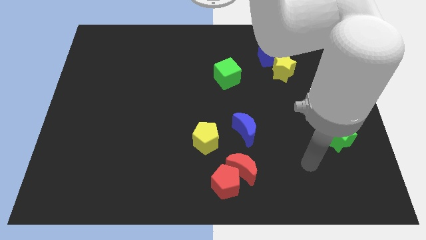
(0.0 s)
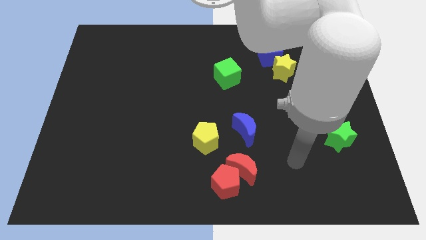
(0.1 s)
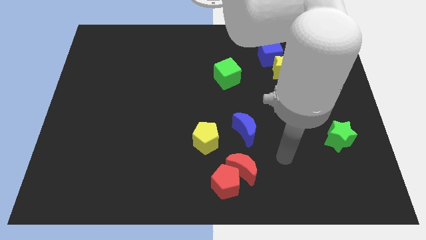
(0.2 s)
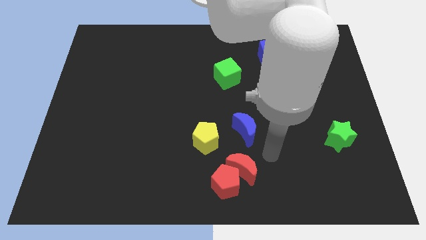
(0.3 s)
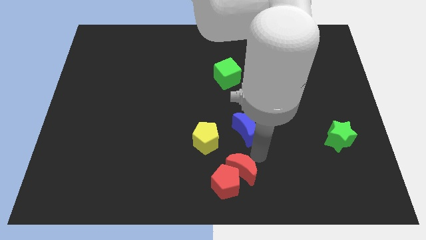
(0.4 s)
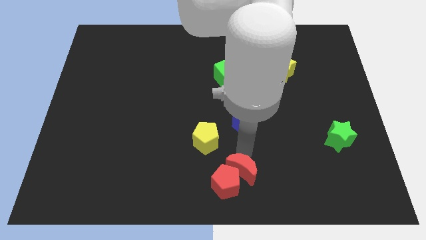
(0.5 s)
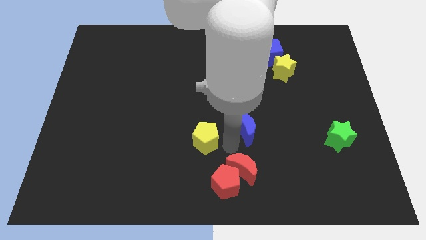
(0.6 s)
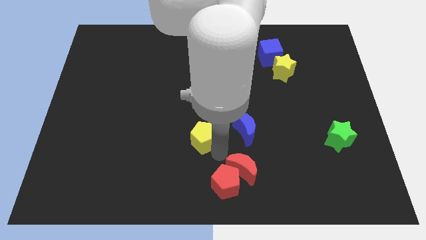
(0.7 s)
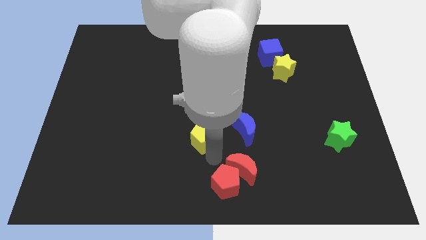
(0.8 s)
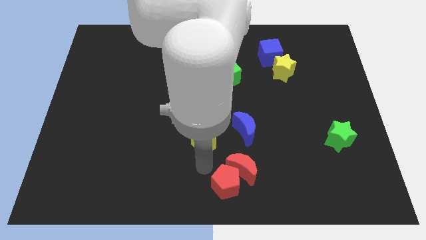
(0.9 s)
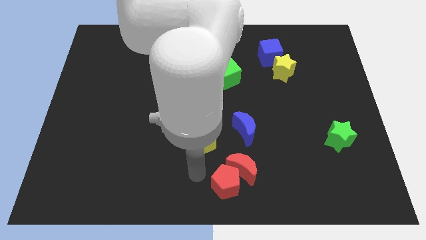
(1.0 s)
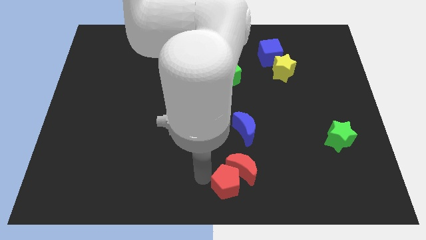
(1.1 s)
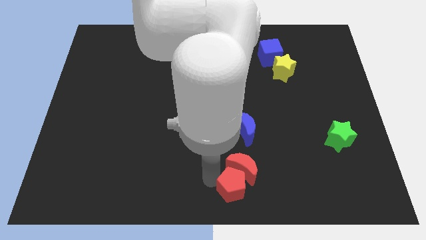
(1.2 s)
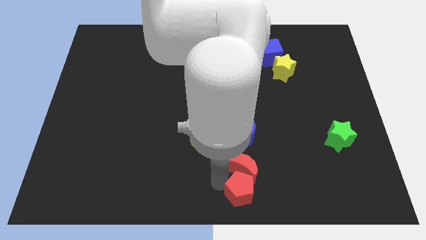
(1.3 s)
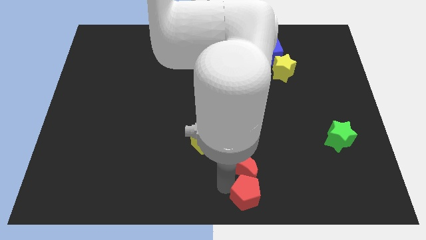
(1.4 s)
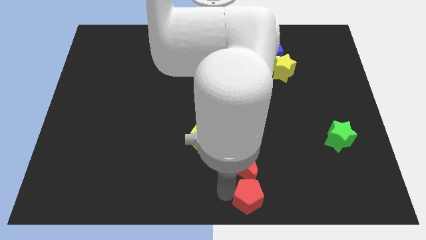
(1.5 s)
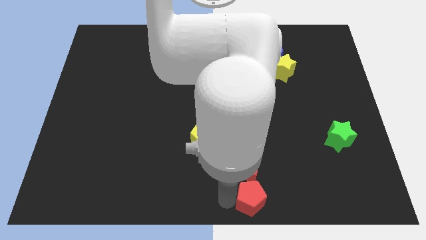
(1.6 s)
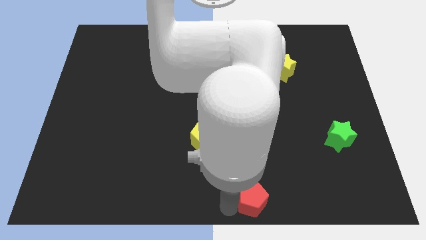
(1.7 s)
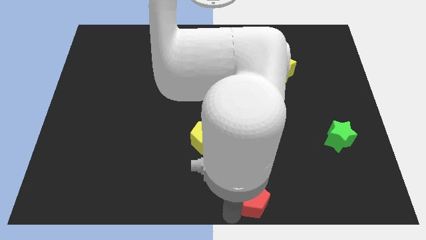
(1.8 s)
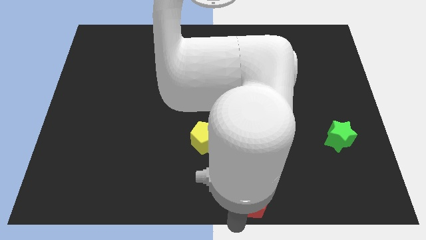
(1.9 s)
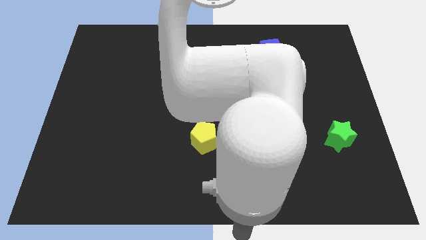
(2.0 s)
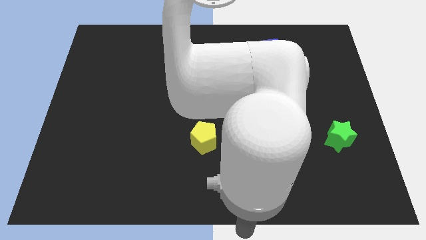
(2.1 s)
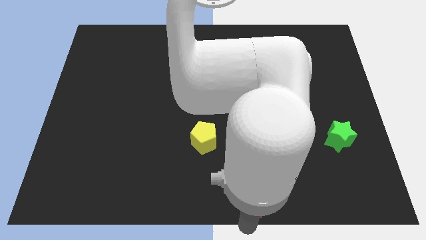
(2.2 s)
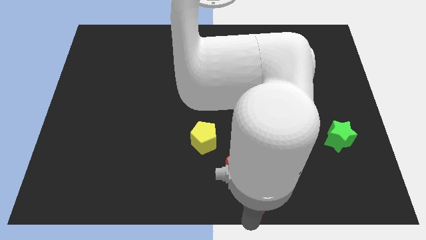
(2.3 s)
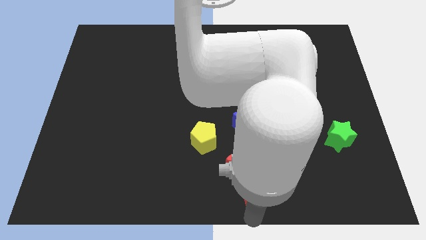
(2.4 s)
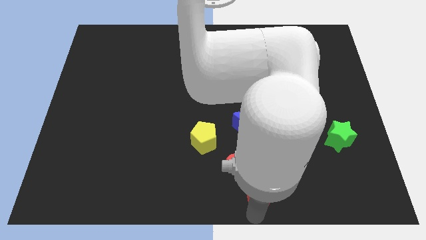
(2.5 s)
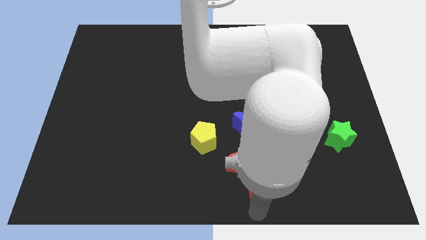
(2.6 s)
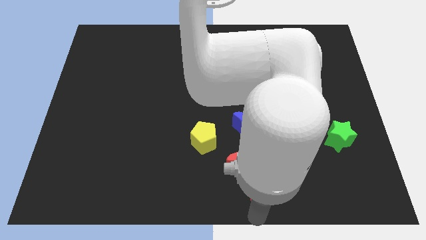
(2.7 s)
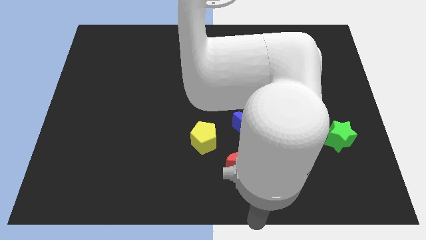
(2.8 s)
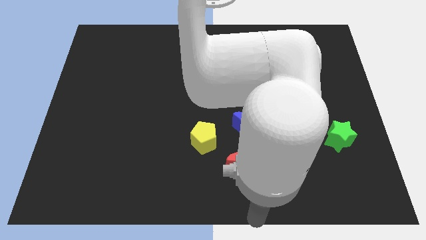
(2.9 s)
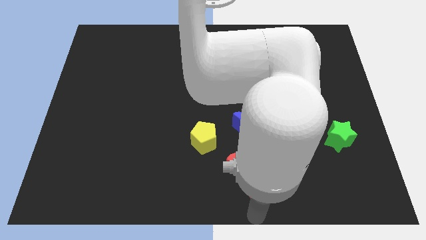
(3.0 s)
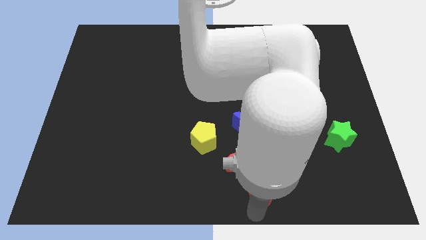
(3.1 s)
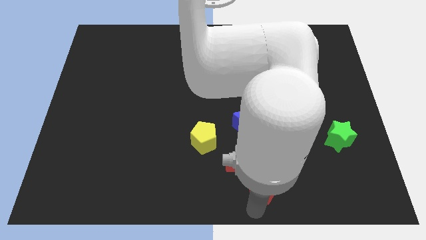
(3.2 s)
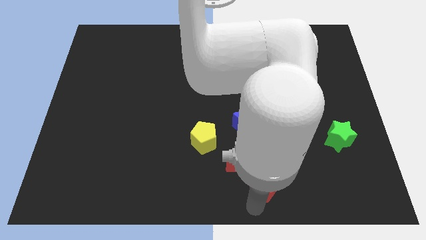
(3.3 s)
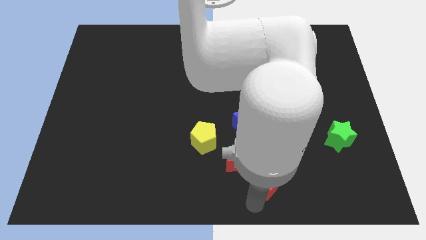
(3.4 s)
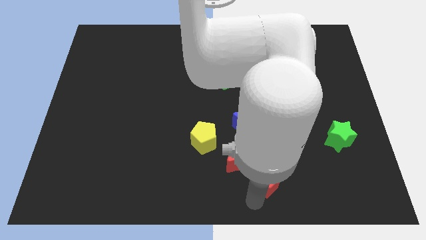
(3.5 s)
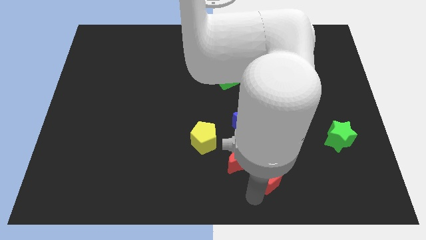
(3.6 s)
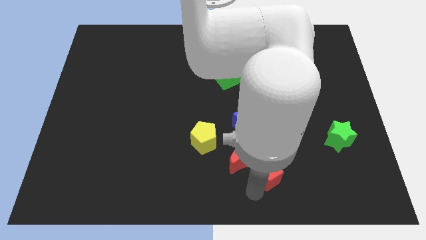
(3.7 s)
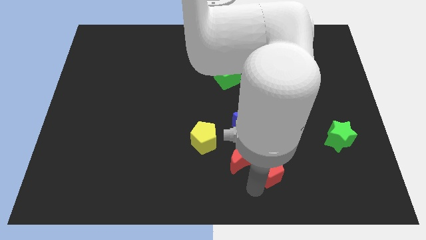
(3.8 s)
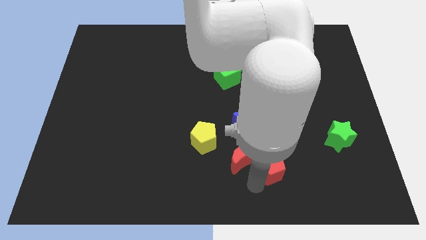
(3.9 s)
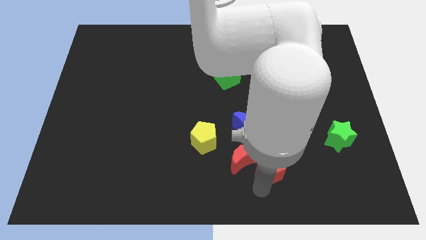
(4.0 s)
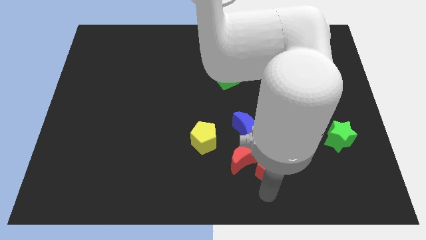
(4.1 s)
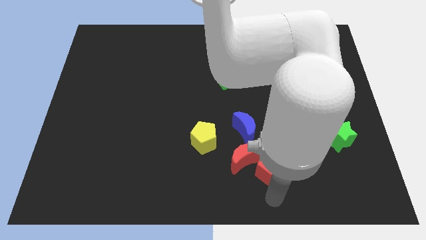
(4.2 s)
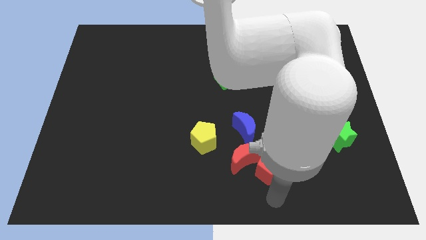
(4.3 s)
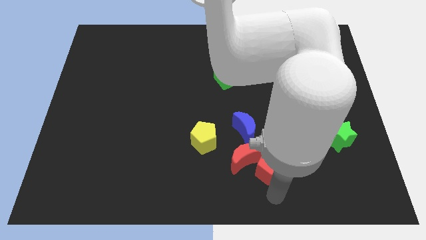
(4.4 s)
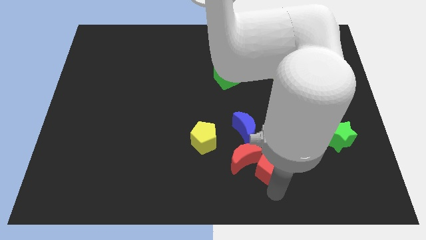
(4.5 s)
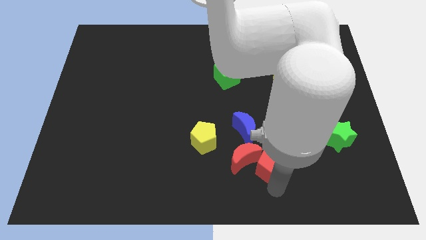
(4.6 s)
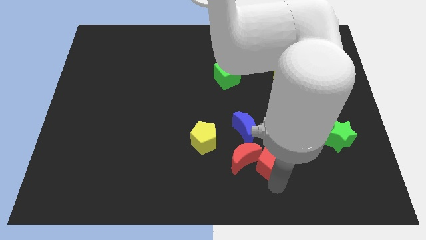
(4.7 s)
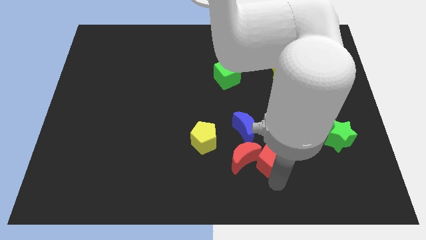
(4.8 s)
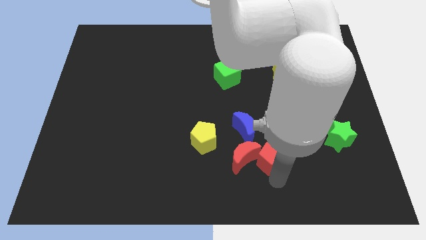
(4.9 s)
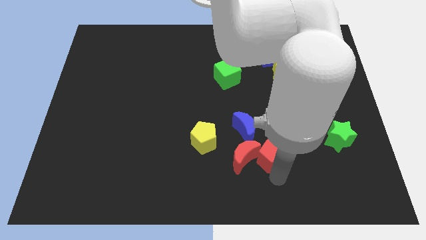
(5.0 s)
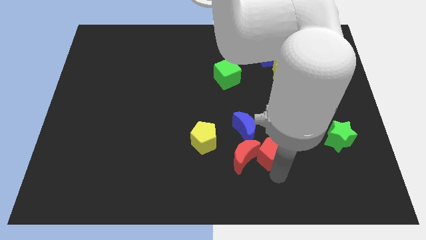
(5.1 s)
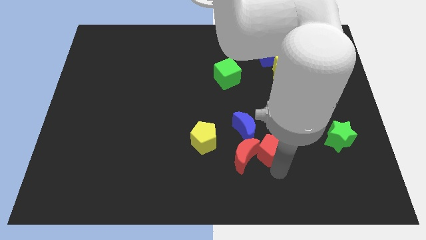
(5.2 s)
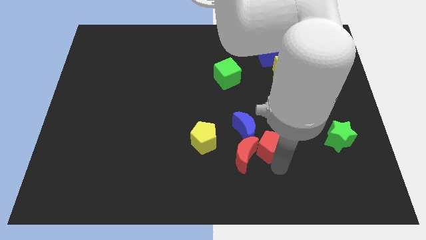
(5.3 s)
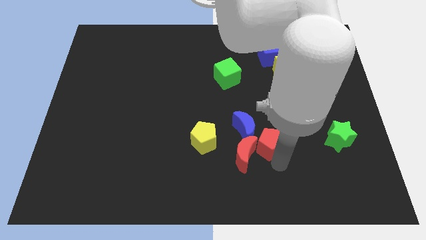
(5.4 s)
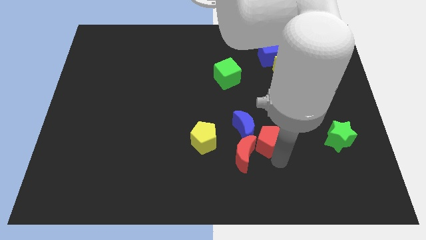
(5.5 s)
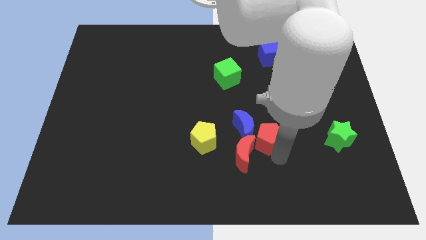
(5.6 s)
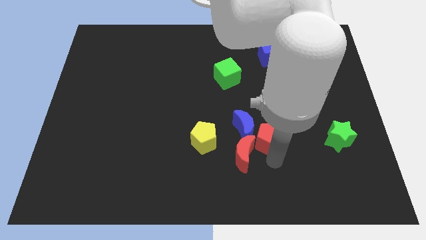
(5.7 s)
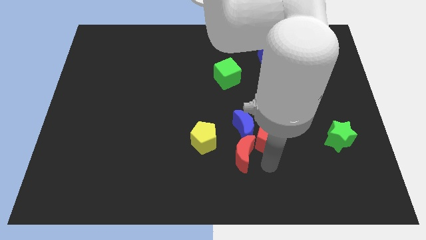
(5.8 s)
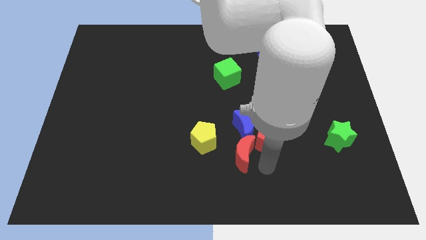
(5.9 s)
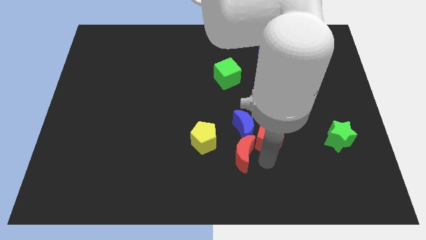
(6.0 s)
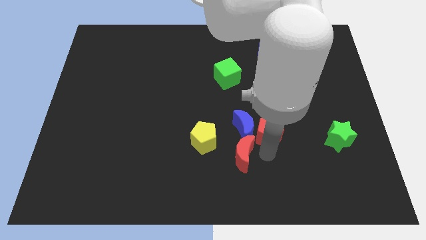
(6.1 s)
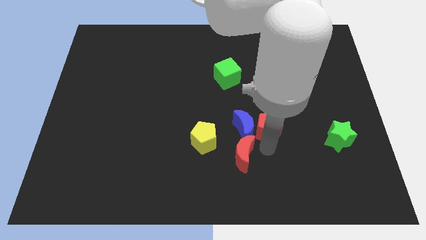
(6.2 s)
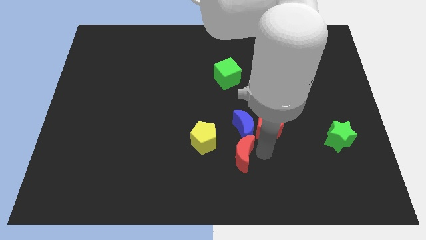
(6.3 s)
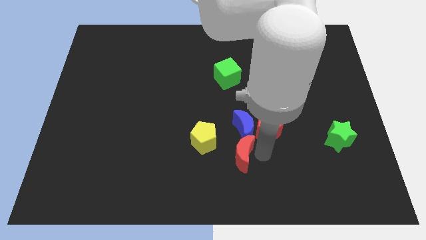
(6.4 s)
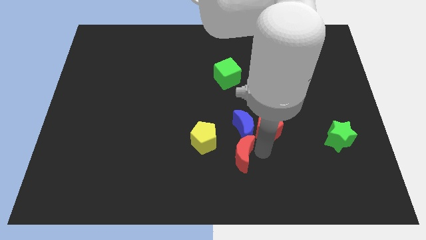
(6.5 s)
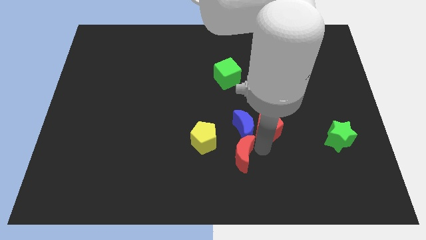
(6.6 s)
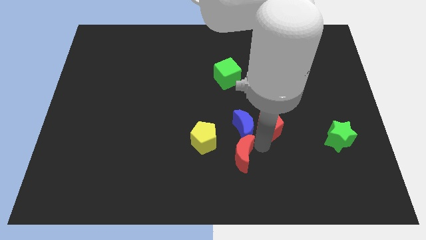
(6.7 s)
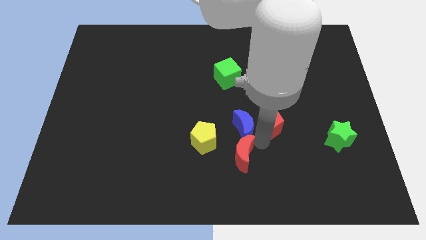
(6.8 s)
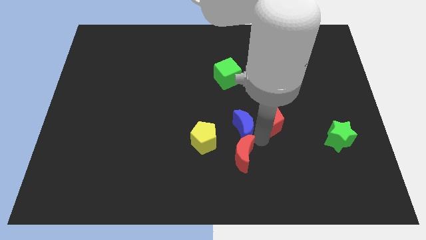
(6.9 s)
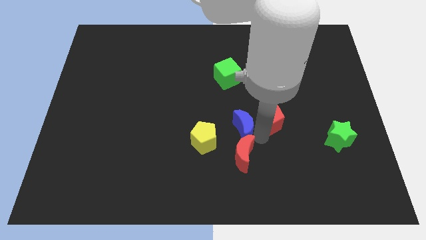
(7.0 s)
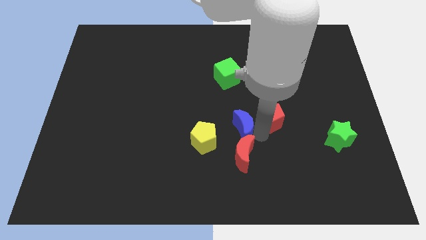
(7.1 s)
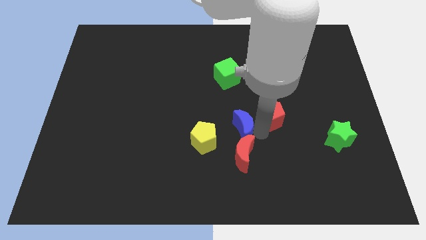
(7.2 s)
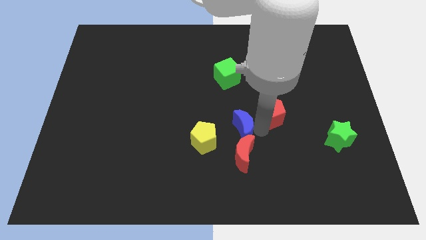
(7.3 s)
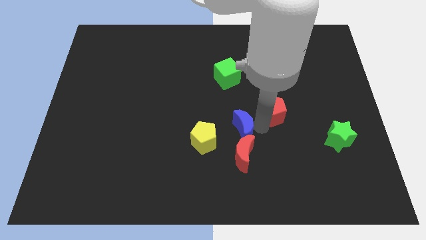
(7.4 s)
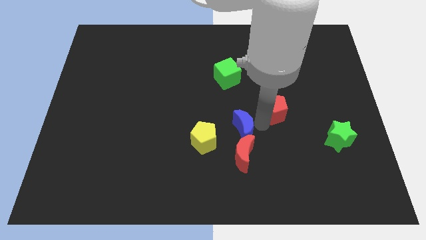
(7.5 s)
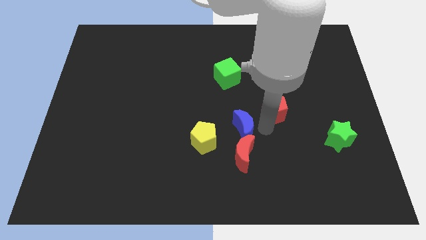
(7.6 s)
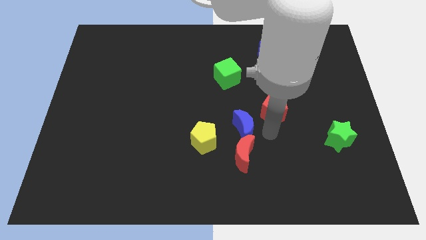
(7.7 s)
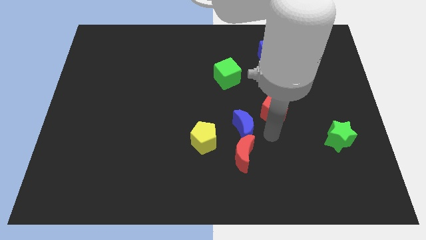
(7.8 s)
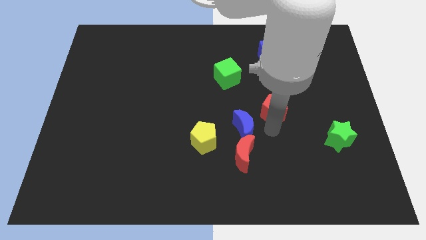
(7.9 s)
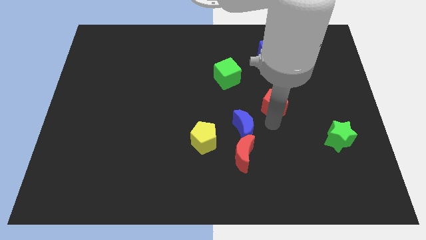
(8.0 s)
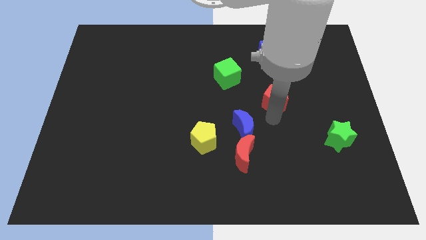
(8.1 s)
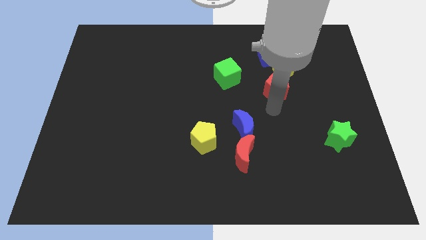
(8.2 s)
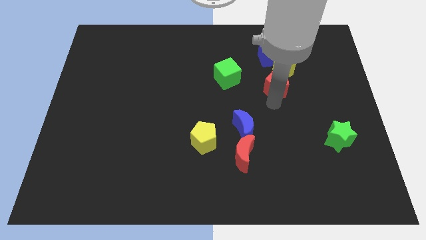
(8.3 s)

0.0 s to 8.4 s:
put the red pentagon towards the yellow star
